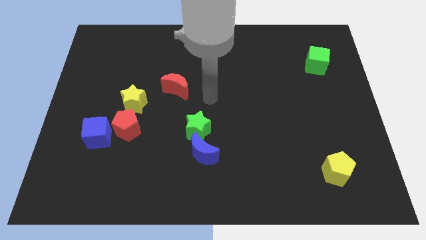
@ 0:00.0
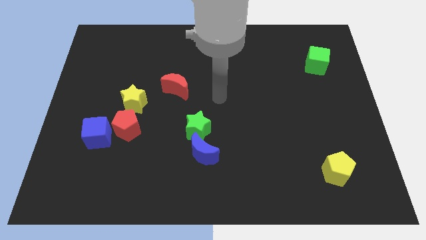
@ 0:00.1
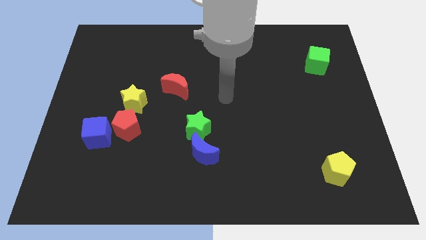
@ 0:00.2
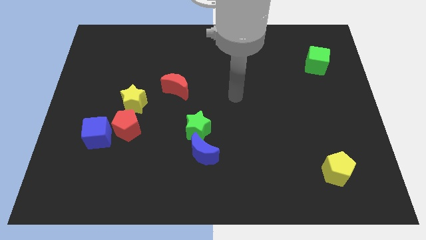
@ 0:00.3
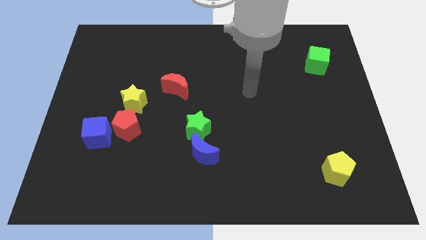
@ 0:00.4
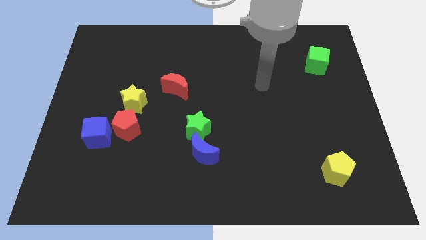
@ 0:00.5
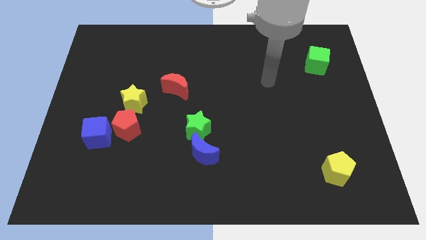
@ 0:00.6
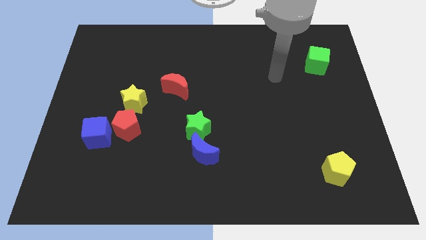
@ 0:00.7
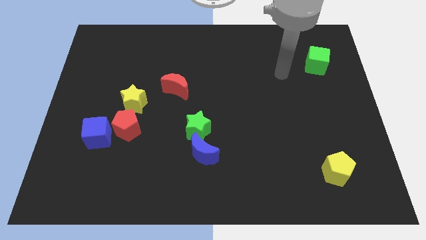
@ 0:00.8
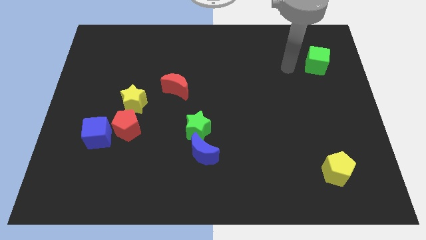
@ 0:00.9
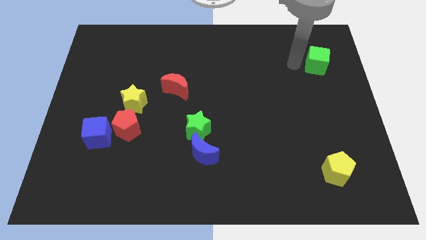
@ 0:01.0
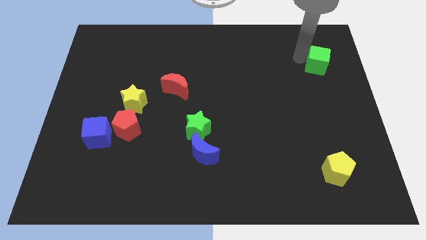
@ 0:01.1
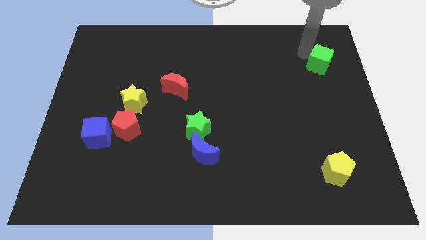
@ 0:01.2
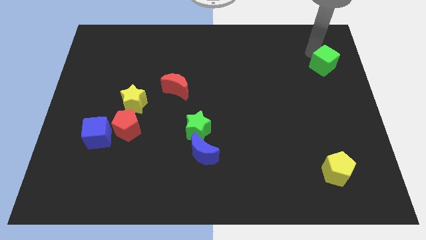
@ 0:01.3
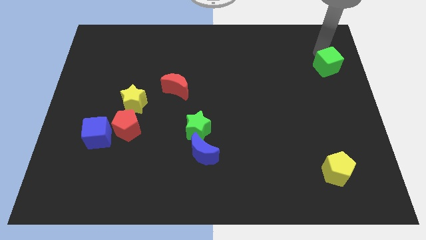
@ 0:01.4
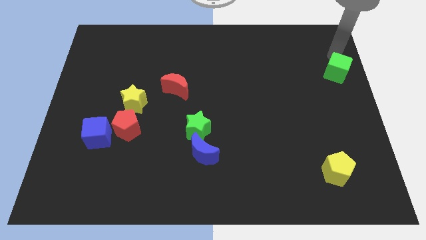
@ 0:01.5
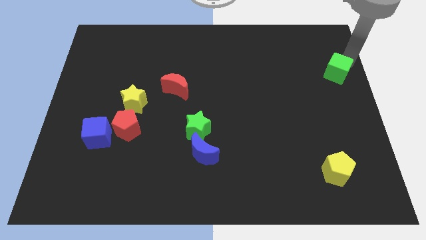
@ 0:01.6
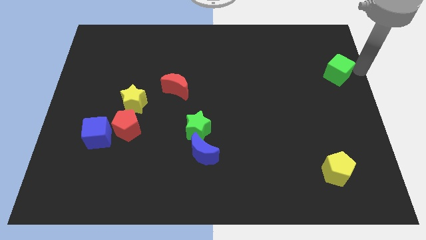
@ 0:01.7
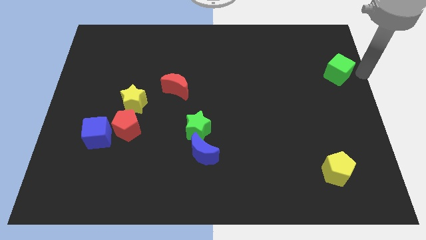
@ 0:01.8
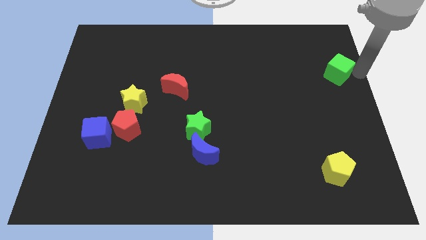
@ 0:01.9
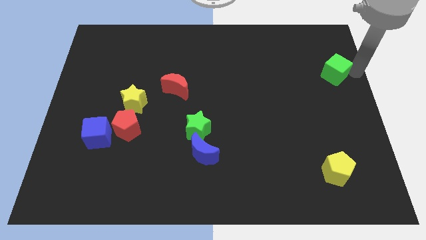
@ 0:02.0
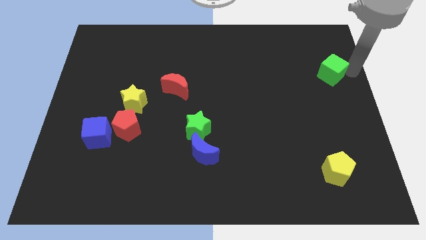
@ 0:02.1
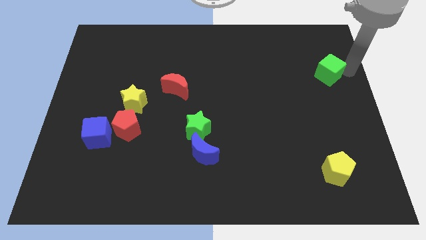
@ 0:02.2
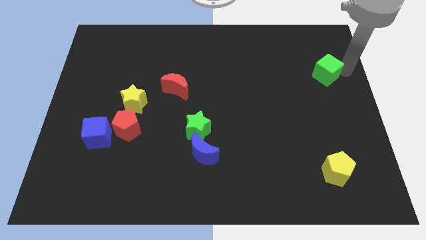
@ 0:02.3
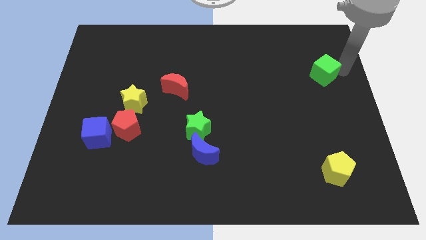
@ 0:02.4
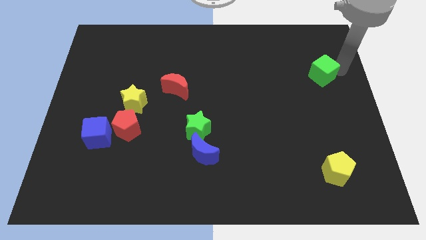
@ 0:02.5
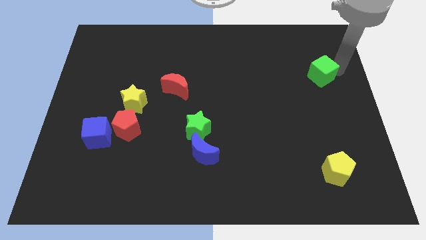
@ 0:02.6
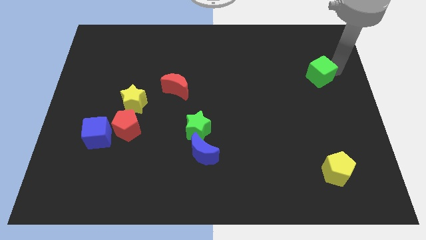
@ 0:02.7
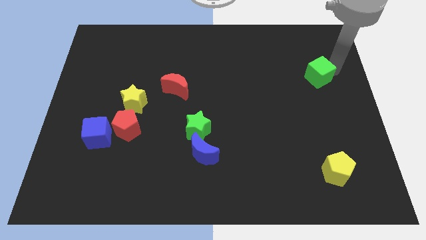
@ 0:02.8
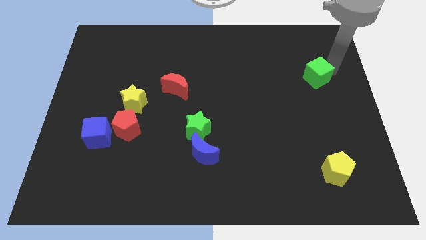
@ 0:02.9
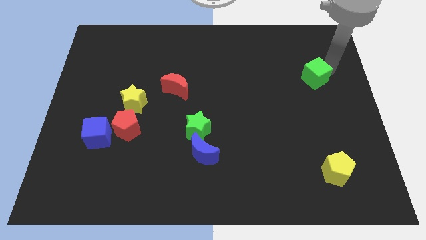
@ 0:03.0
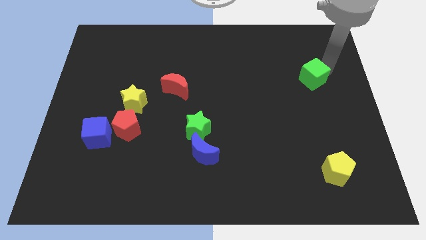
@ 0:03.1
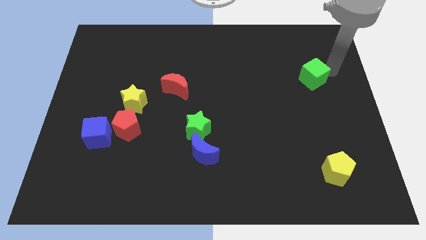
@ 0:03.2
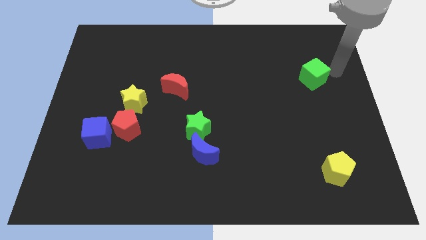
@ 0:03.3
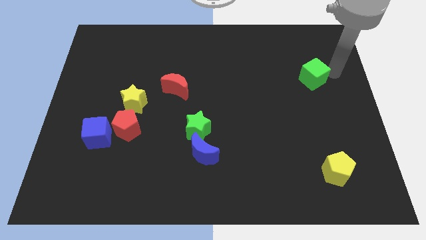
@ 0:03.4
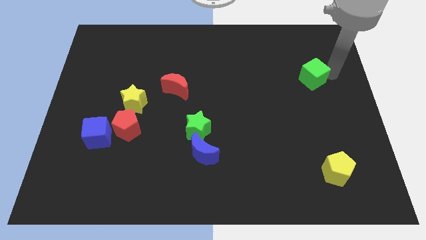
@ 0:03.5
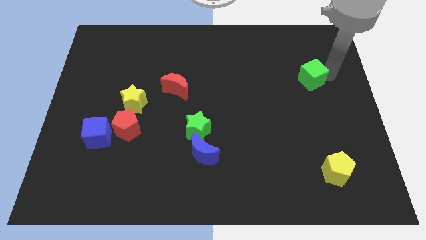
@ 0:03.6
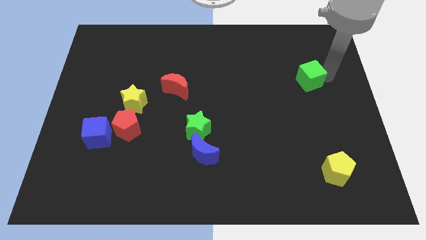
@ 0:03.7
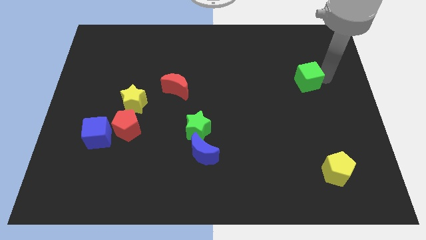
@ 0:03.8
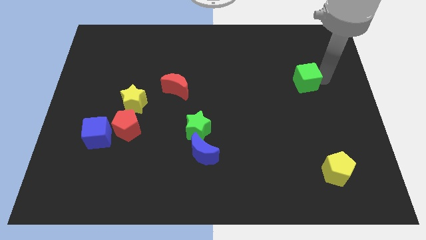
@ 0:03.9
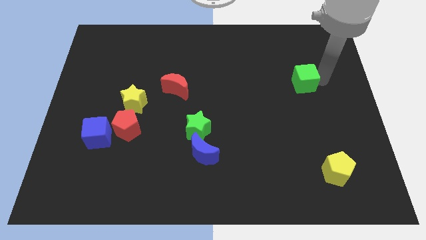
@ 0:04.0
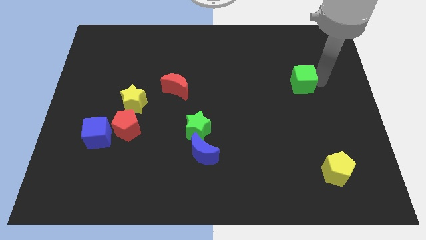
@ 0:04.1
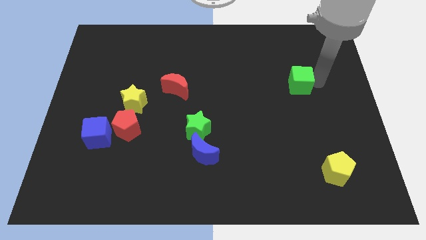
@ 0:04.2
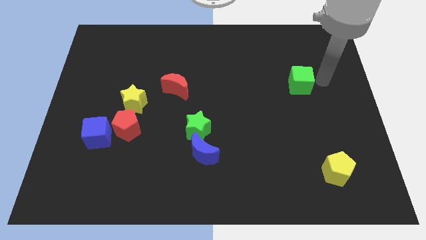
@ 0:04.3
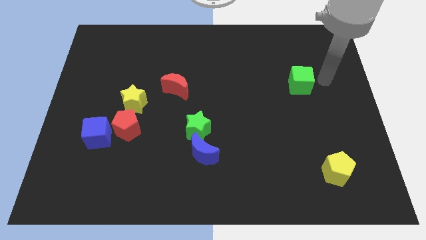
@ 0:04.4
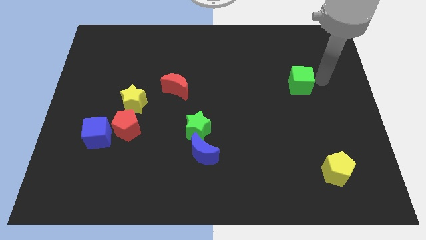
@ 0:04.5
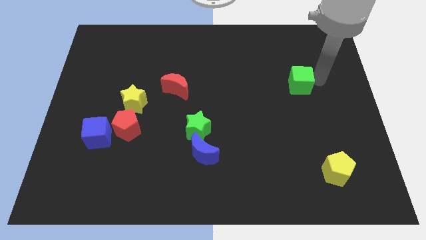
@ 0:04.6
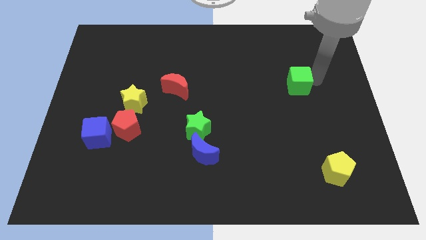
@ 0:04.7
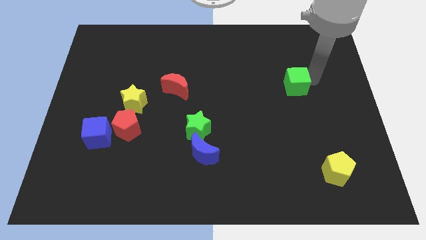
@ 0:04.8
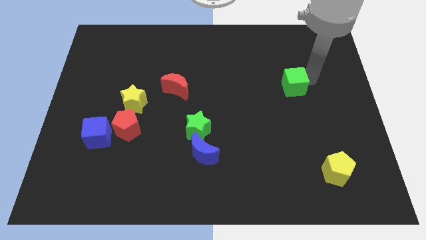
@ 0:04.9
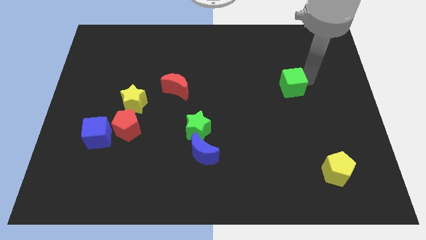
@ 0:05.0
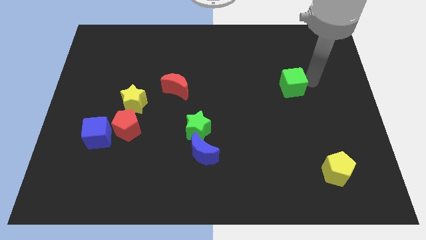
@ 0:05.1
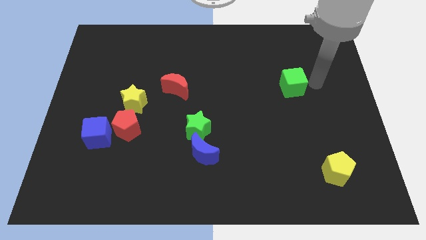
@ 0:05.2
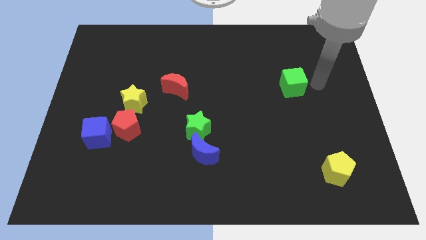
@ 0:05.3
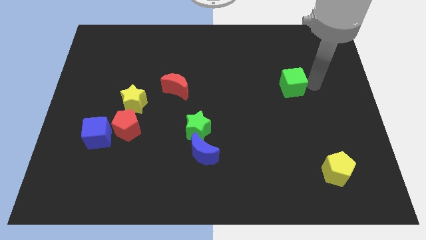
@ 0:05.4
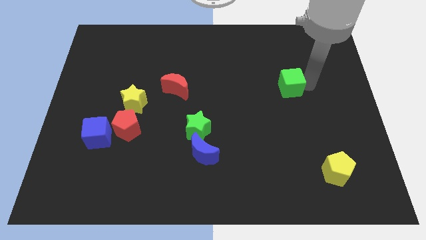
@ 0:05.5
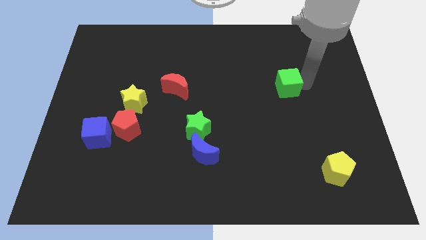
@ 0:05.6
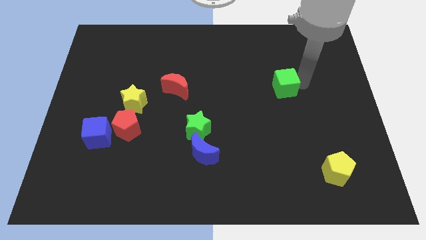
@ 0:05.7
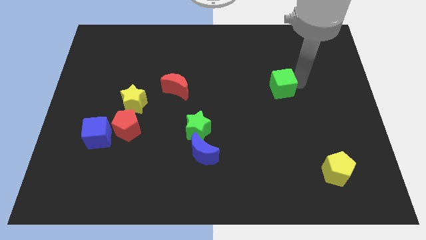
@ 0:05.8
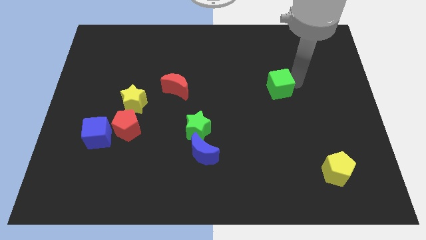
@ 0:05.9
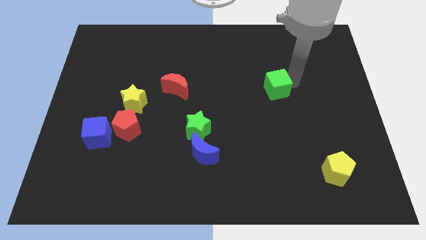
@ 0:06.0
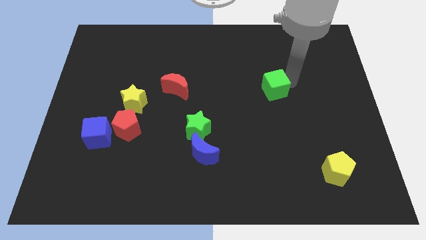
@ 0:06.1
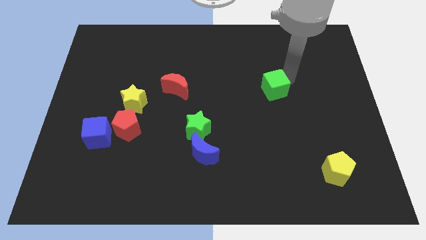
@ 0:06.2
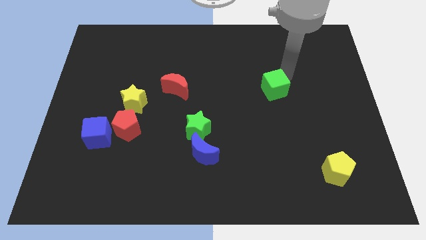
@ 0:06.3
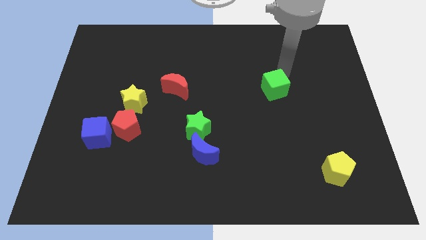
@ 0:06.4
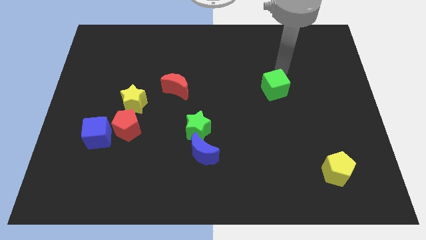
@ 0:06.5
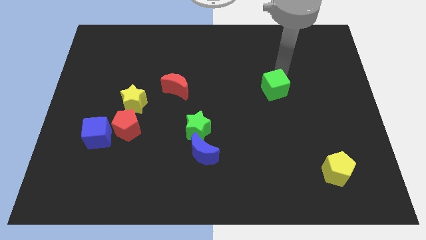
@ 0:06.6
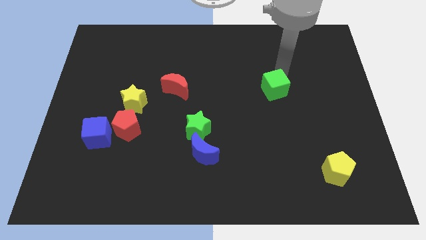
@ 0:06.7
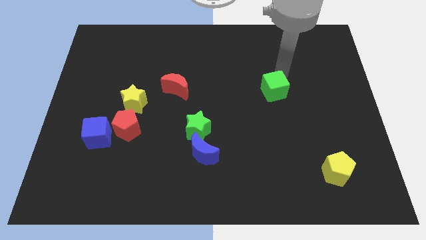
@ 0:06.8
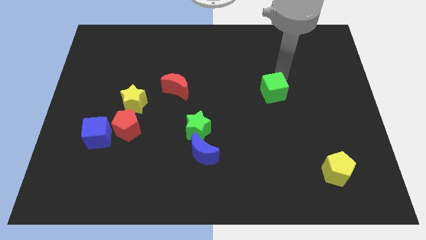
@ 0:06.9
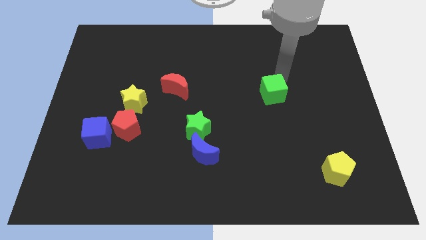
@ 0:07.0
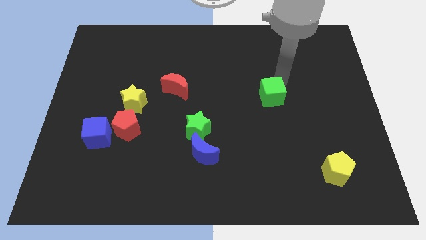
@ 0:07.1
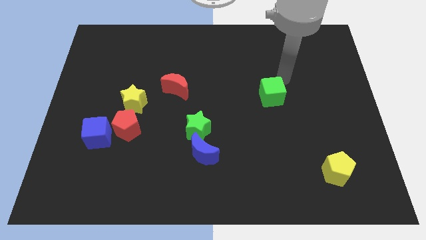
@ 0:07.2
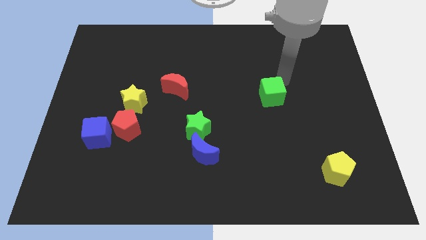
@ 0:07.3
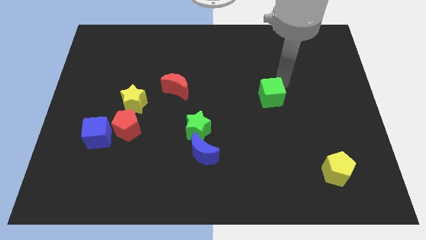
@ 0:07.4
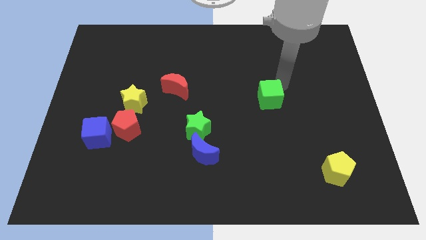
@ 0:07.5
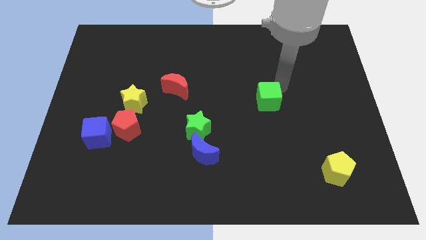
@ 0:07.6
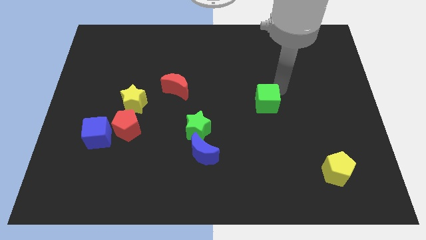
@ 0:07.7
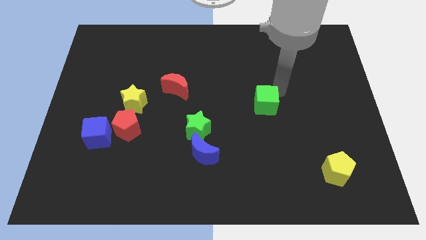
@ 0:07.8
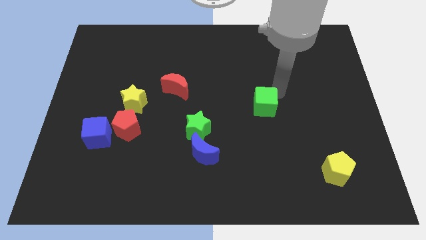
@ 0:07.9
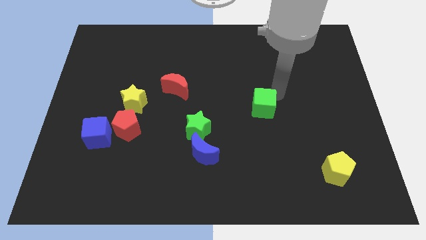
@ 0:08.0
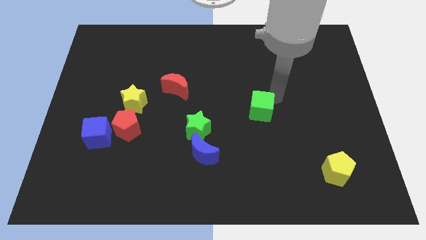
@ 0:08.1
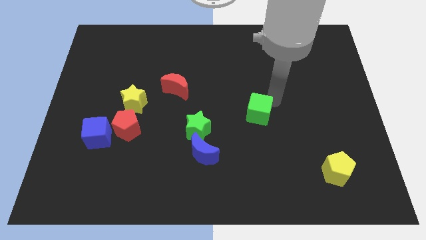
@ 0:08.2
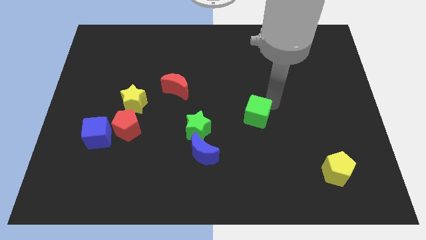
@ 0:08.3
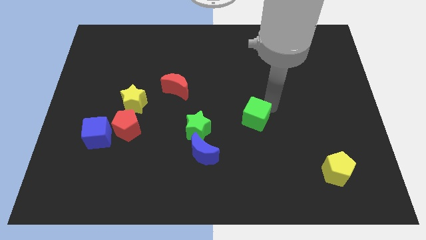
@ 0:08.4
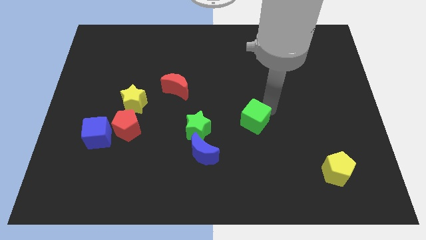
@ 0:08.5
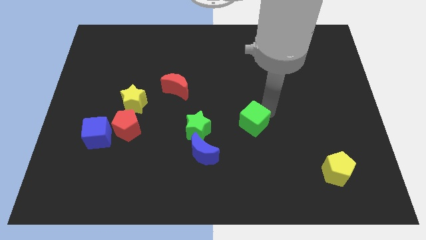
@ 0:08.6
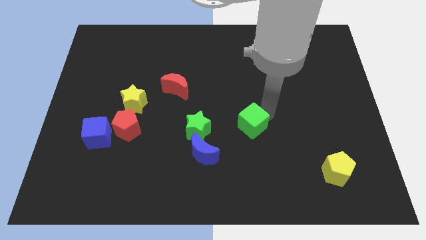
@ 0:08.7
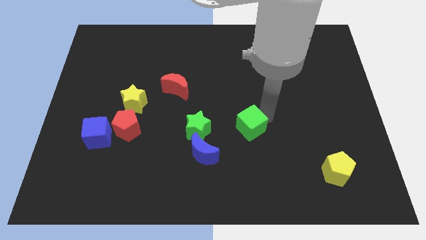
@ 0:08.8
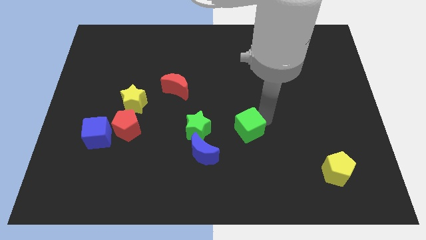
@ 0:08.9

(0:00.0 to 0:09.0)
move the green cube diagonally up and to the right of the blue moon
